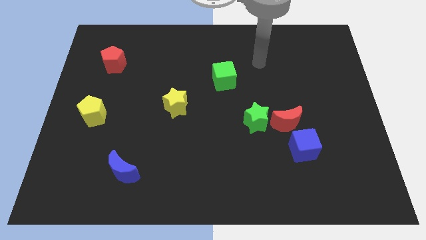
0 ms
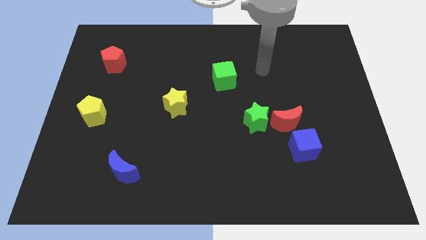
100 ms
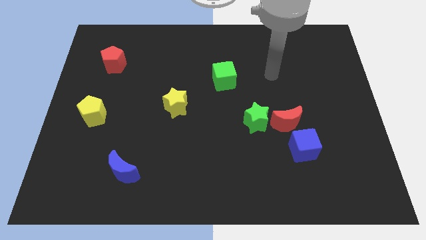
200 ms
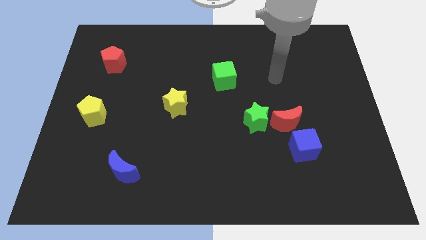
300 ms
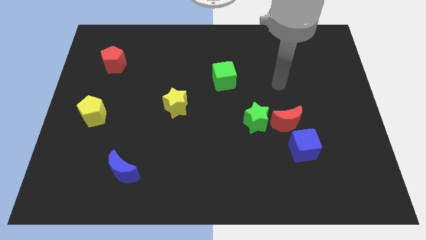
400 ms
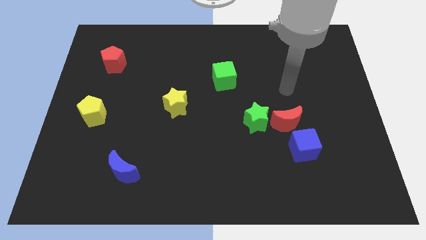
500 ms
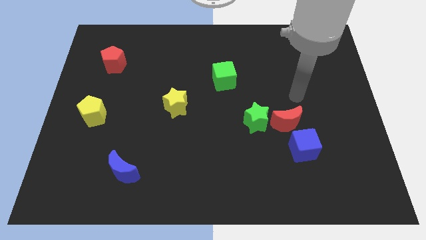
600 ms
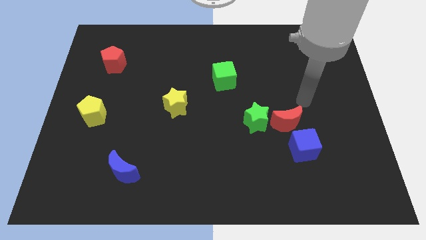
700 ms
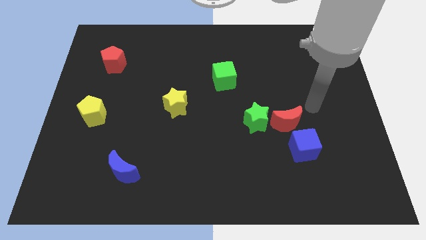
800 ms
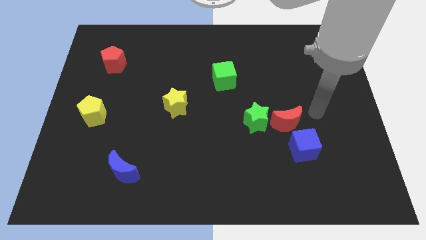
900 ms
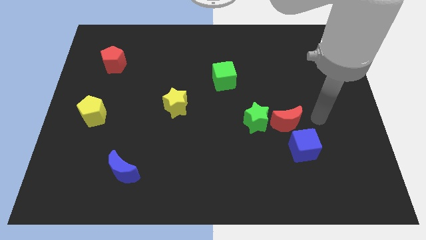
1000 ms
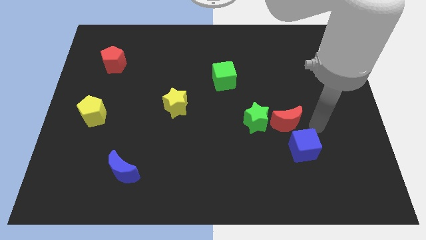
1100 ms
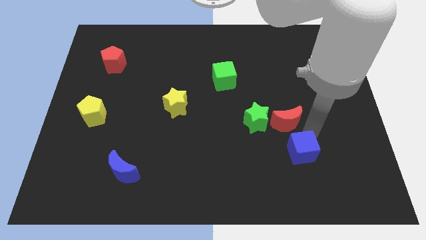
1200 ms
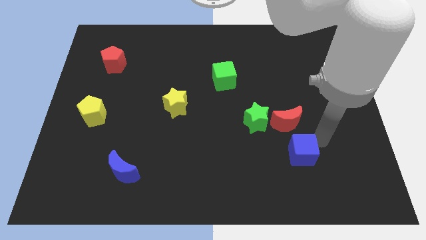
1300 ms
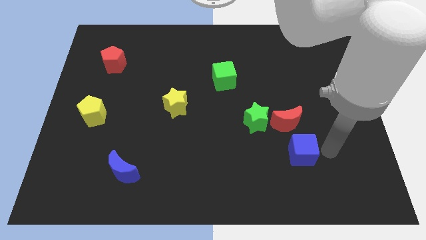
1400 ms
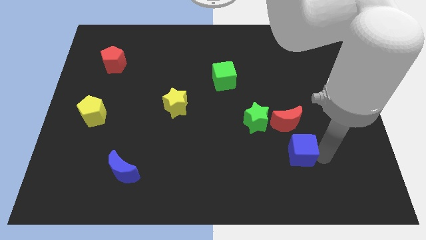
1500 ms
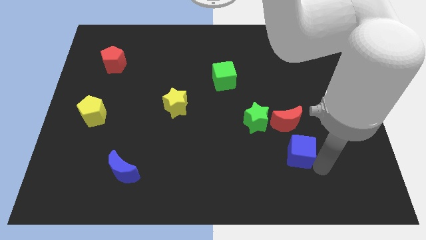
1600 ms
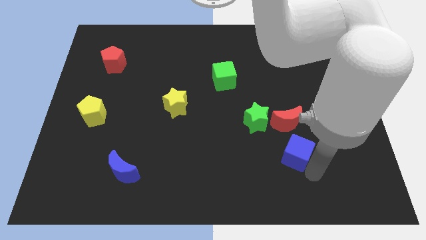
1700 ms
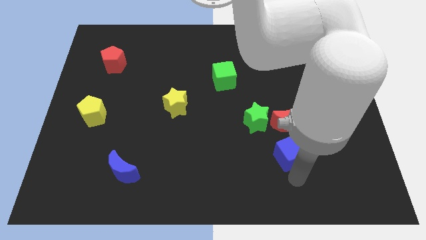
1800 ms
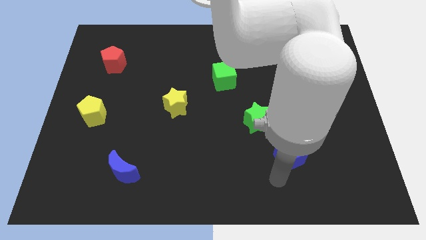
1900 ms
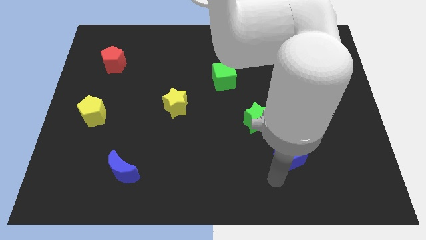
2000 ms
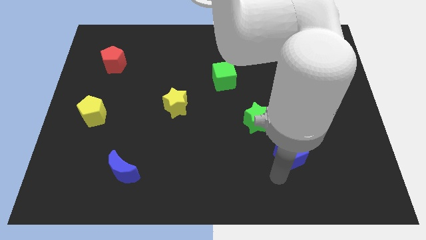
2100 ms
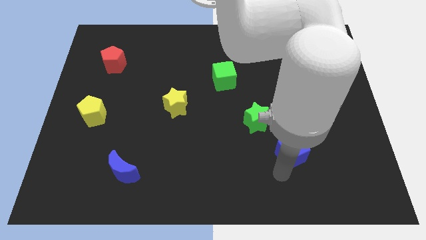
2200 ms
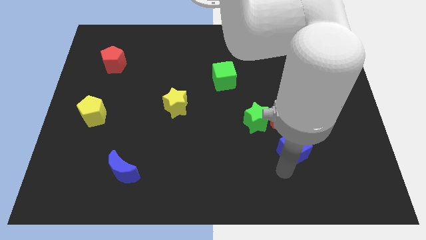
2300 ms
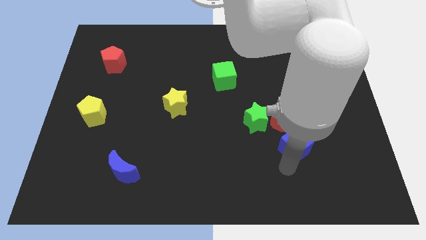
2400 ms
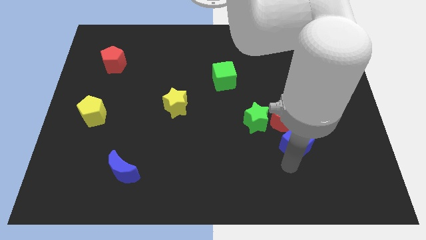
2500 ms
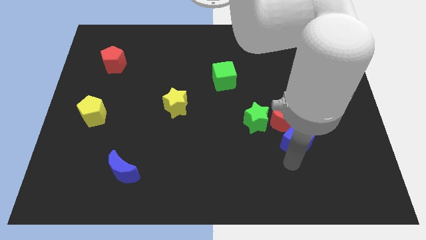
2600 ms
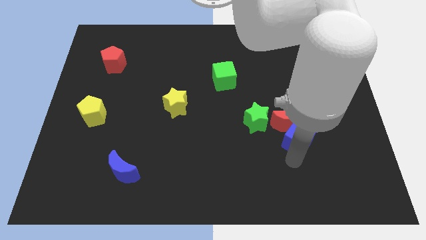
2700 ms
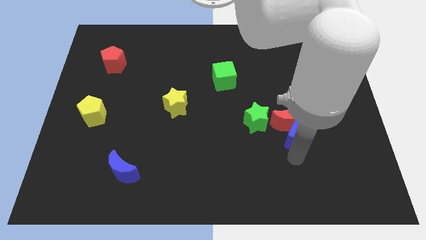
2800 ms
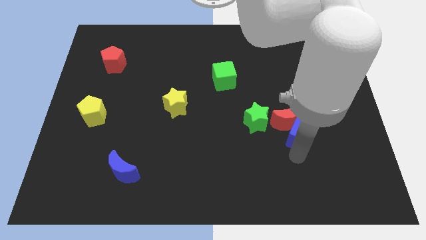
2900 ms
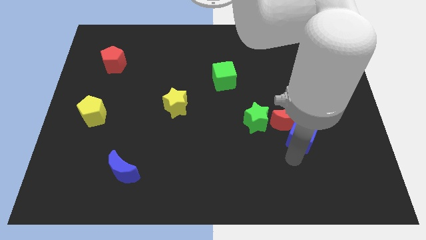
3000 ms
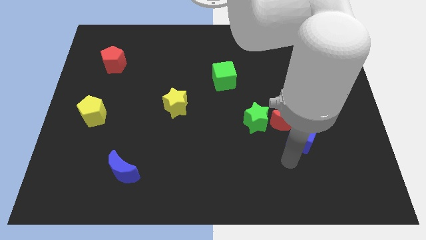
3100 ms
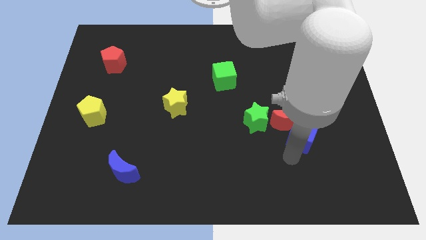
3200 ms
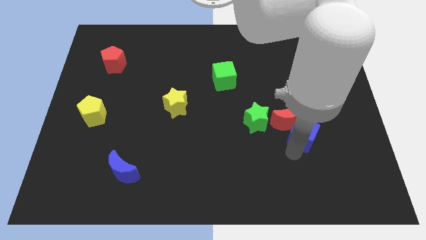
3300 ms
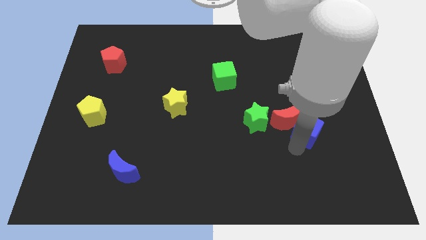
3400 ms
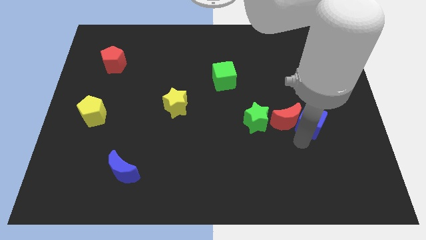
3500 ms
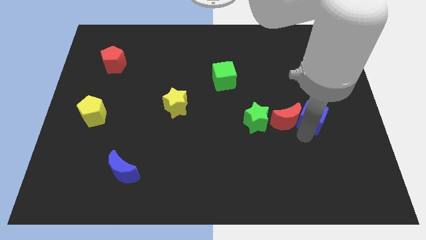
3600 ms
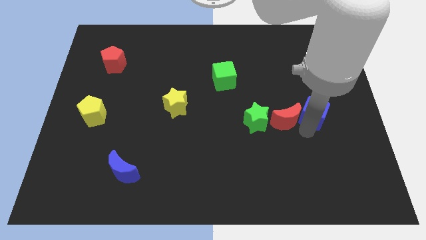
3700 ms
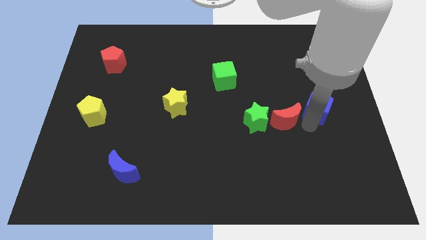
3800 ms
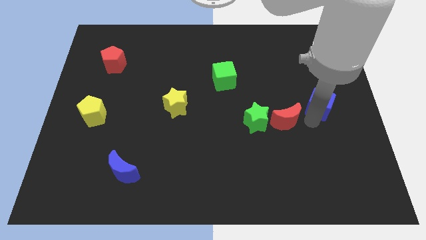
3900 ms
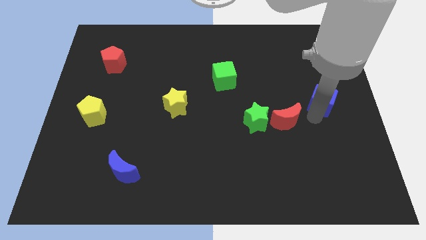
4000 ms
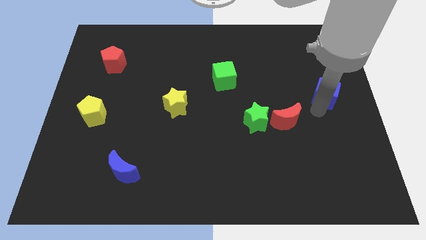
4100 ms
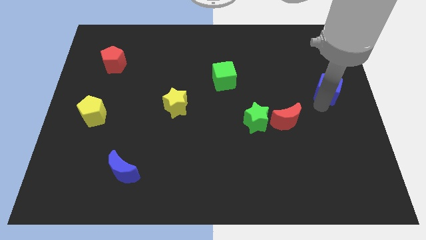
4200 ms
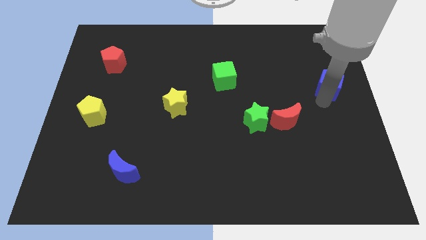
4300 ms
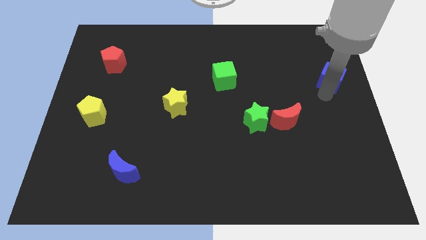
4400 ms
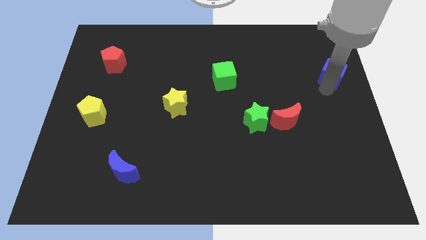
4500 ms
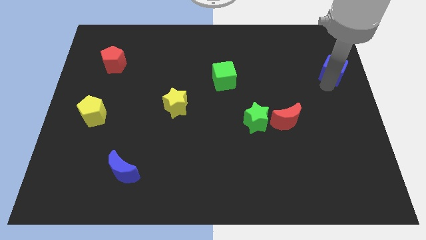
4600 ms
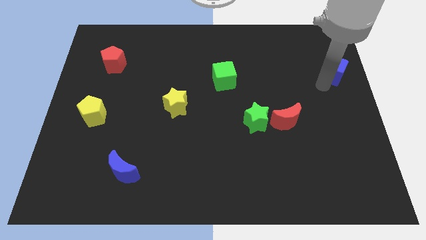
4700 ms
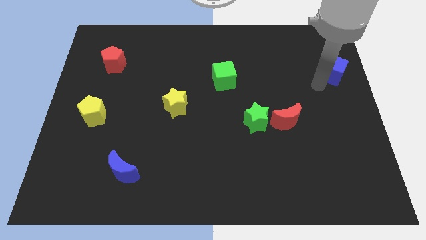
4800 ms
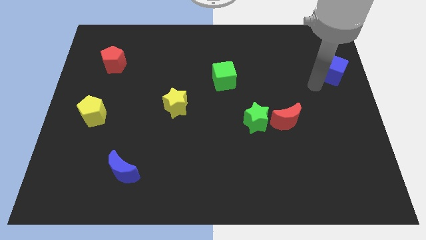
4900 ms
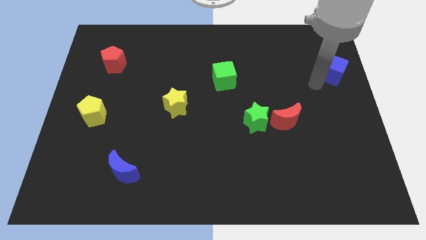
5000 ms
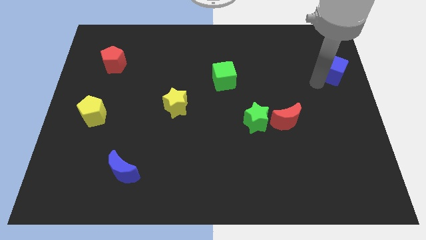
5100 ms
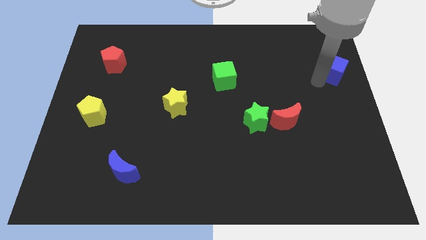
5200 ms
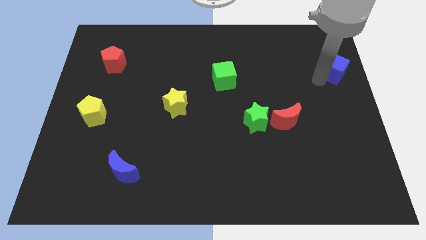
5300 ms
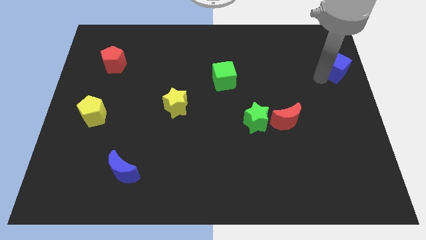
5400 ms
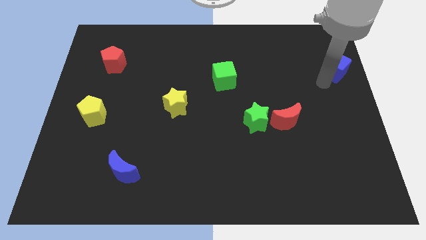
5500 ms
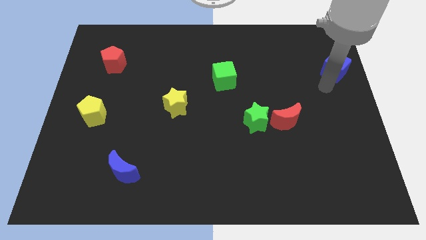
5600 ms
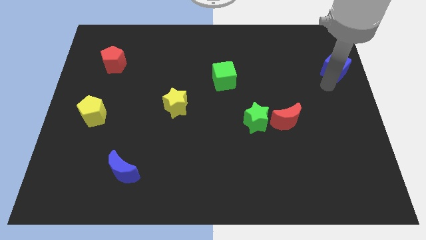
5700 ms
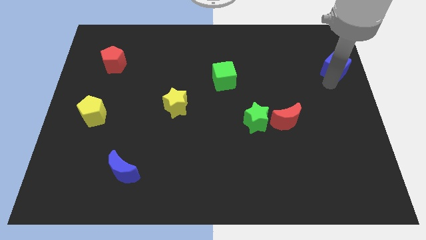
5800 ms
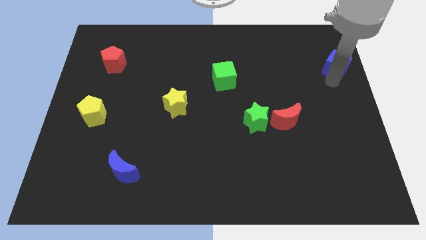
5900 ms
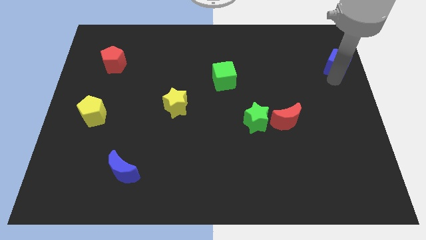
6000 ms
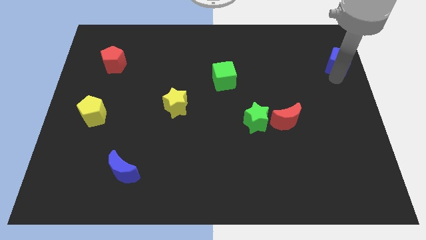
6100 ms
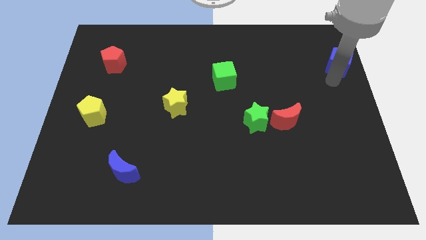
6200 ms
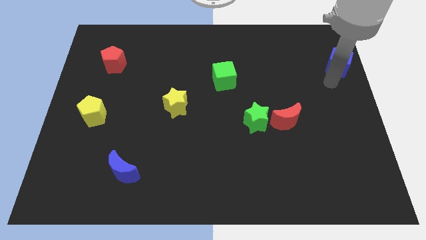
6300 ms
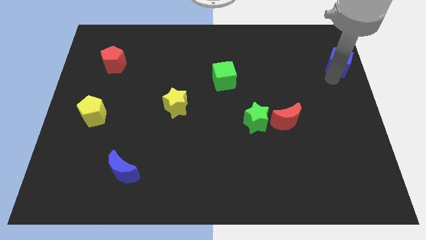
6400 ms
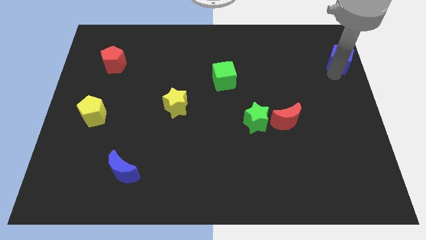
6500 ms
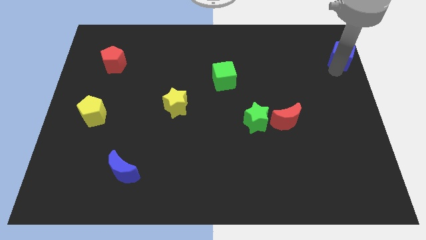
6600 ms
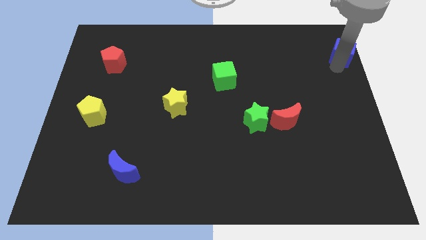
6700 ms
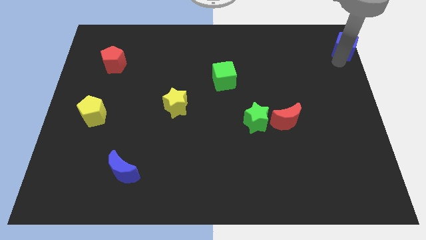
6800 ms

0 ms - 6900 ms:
put the blue cube to the top right

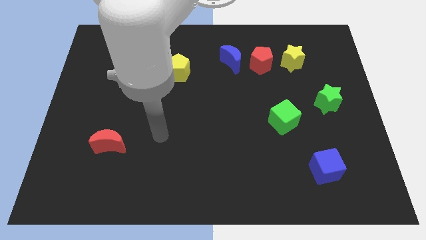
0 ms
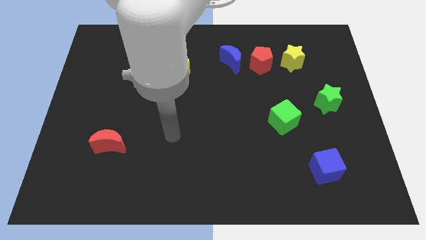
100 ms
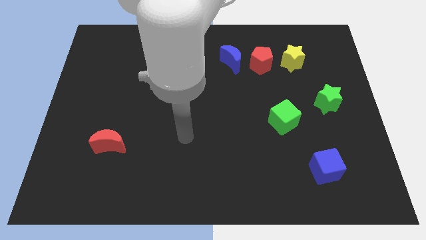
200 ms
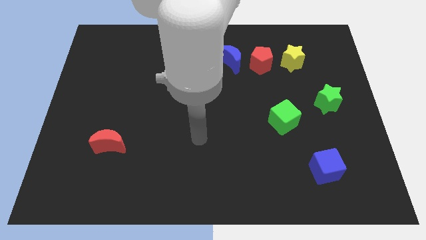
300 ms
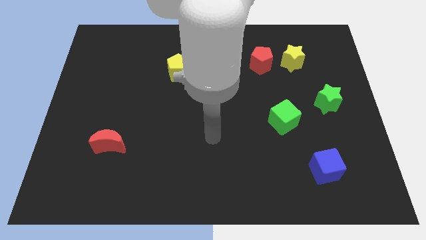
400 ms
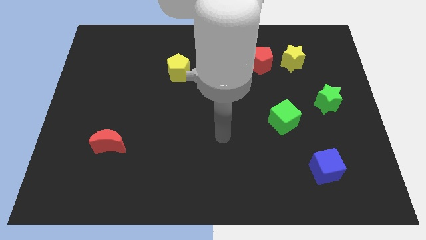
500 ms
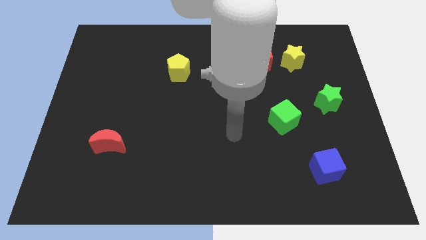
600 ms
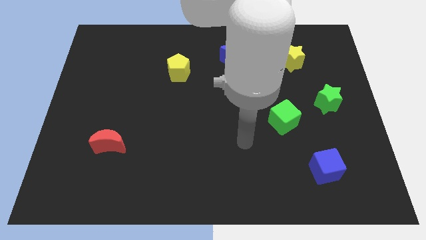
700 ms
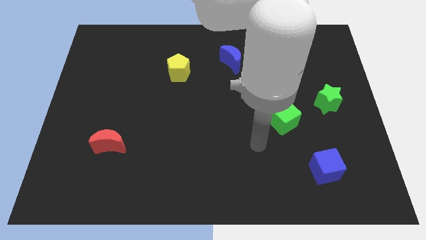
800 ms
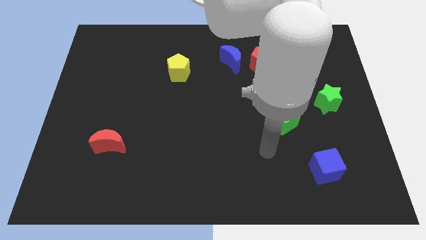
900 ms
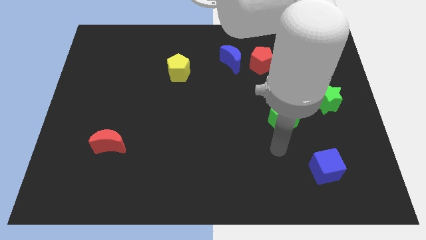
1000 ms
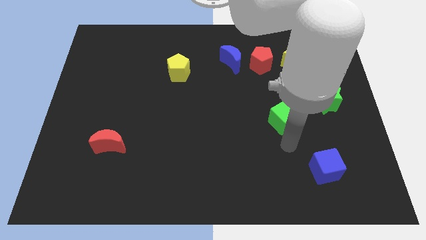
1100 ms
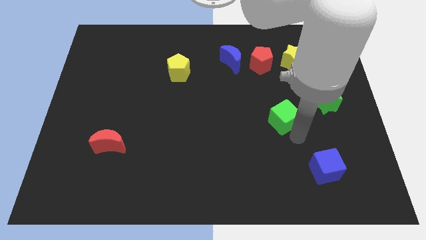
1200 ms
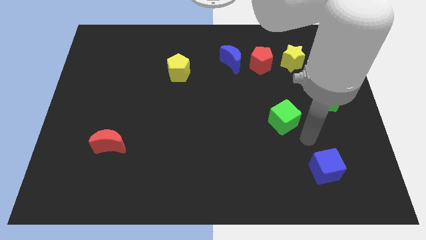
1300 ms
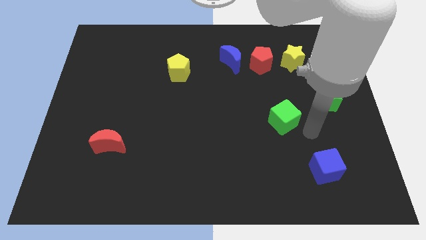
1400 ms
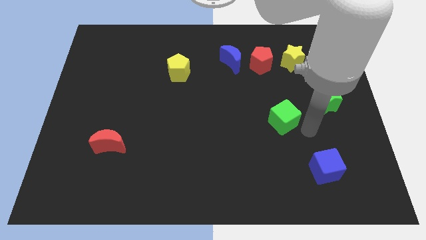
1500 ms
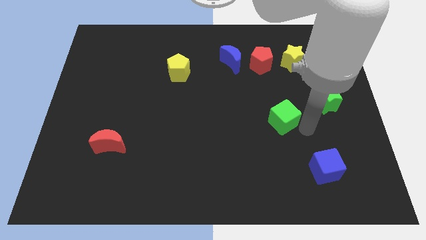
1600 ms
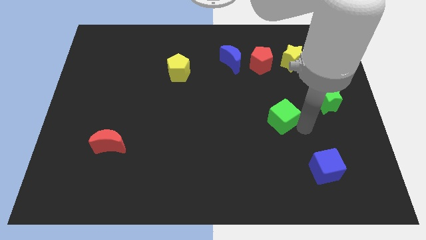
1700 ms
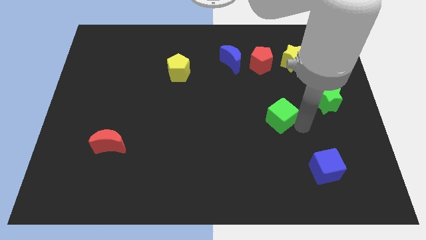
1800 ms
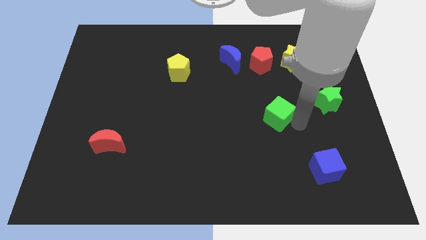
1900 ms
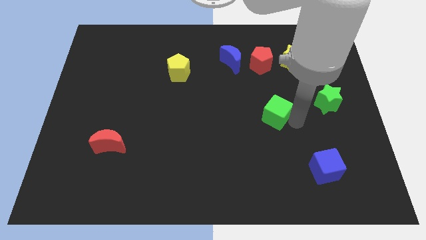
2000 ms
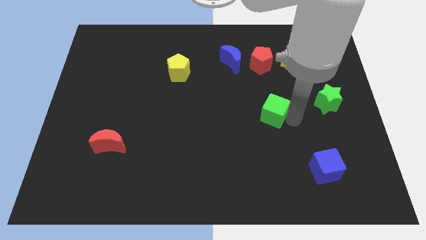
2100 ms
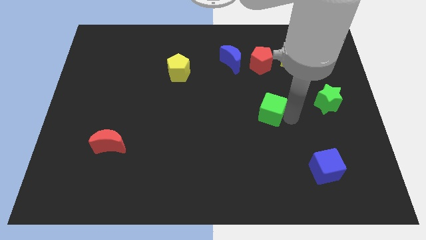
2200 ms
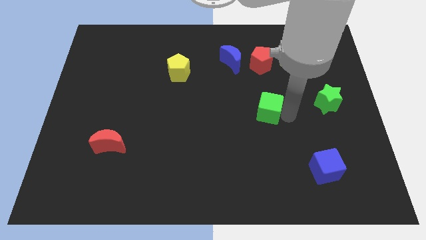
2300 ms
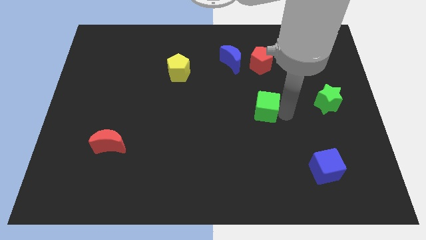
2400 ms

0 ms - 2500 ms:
push the green cube to the center
